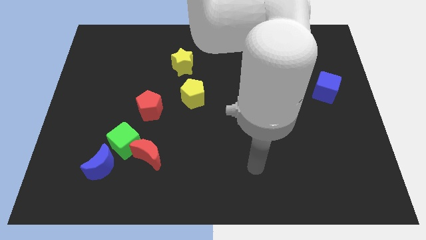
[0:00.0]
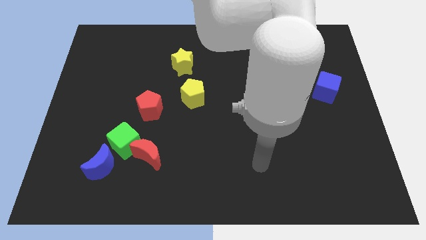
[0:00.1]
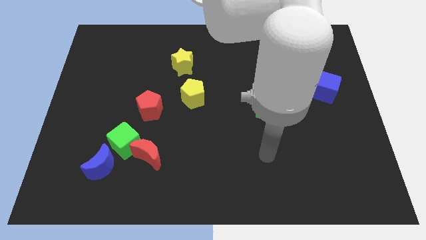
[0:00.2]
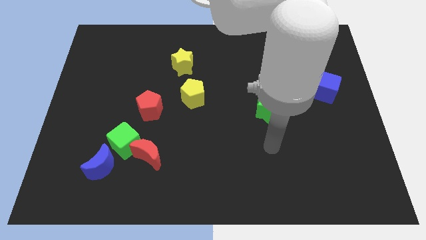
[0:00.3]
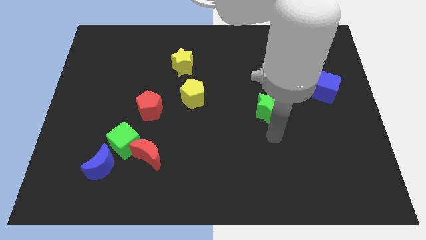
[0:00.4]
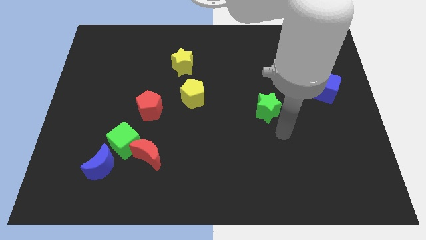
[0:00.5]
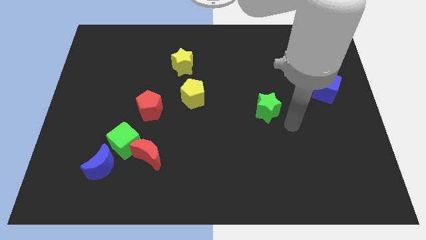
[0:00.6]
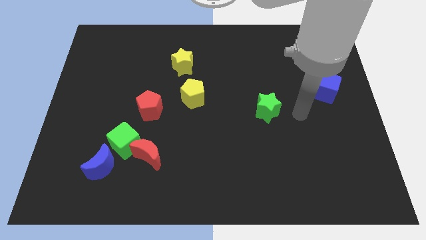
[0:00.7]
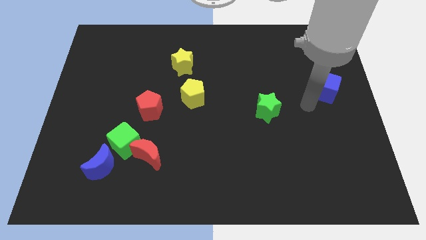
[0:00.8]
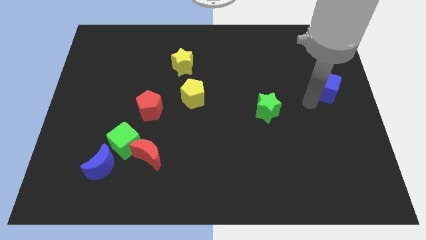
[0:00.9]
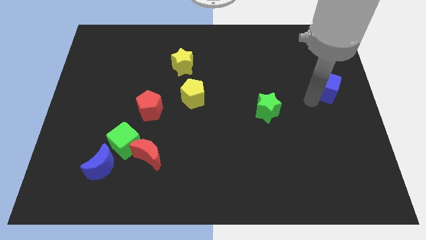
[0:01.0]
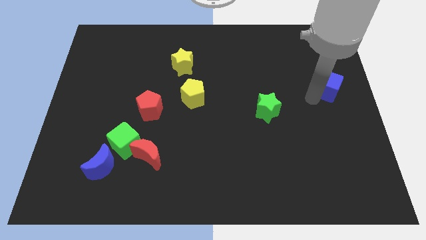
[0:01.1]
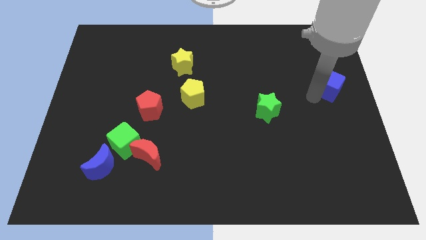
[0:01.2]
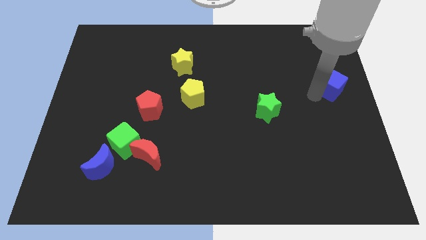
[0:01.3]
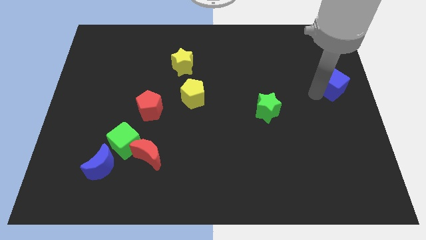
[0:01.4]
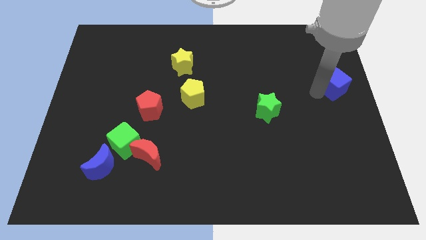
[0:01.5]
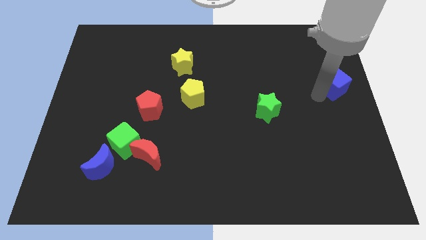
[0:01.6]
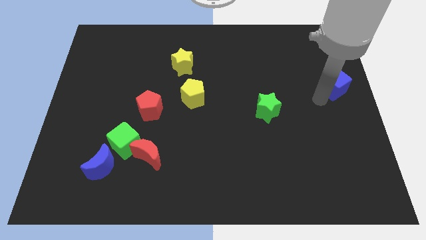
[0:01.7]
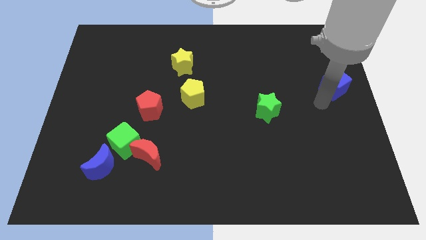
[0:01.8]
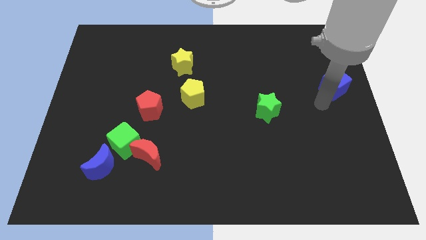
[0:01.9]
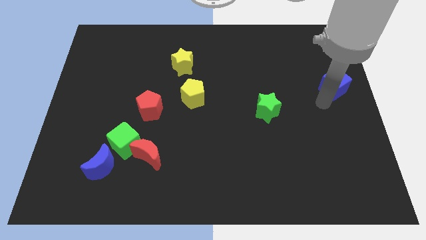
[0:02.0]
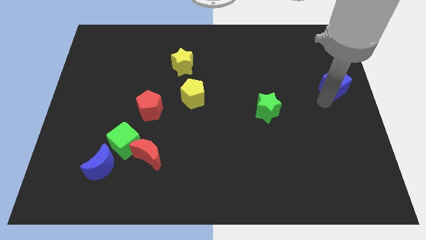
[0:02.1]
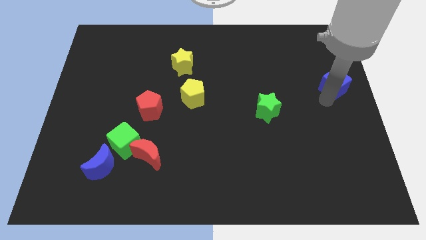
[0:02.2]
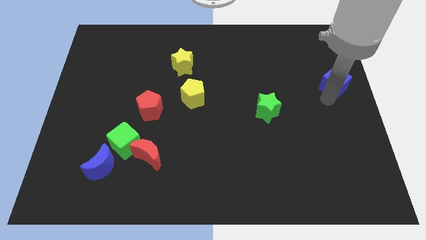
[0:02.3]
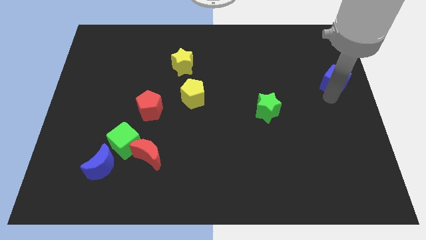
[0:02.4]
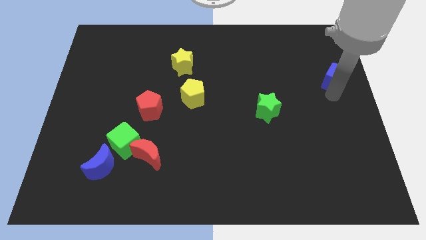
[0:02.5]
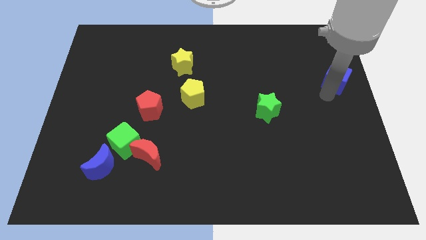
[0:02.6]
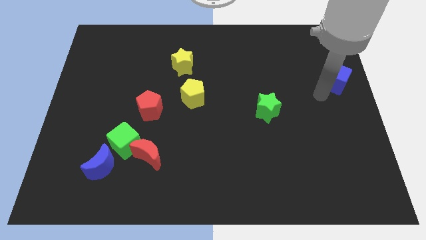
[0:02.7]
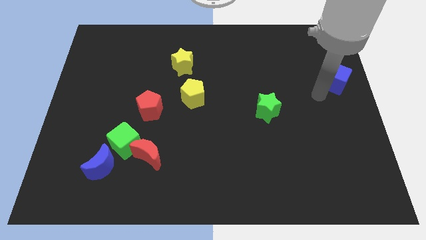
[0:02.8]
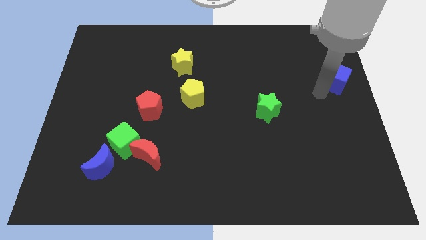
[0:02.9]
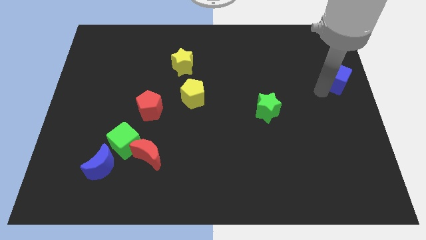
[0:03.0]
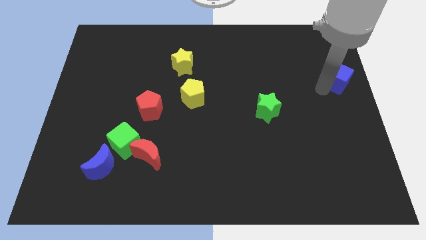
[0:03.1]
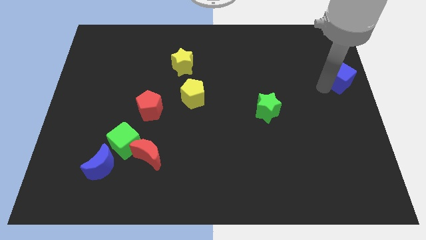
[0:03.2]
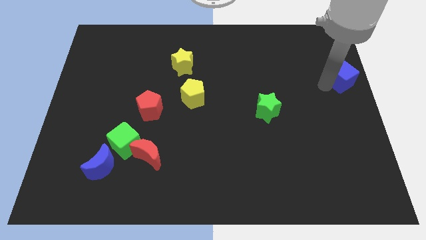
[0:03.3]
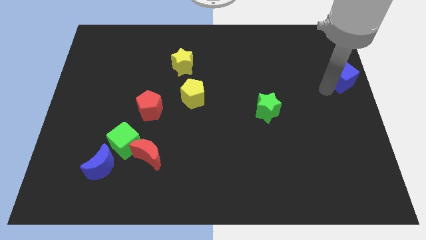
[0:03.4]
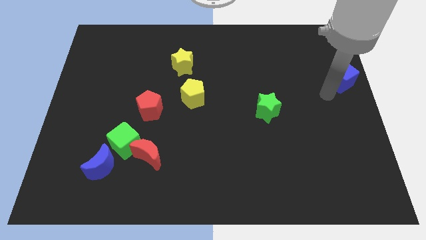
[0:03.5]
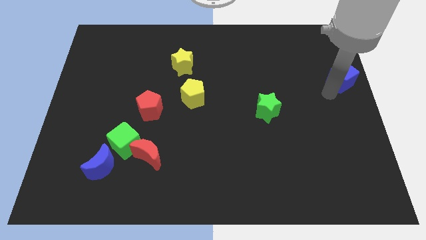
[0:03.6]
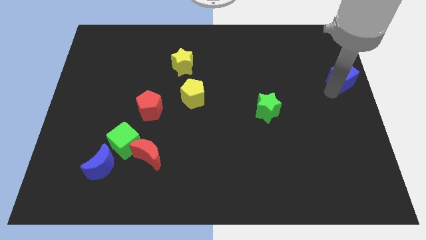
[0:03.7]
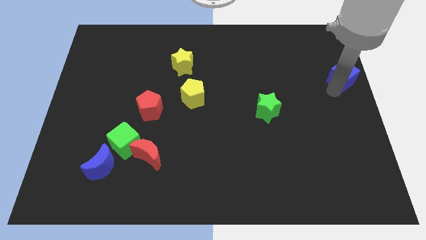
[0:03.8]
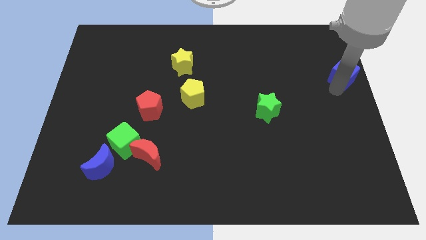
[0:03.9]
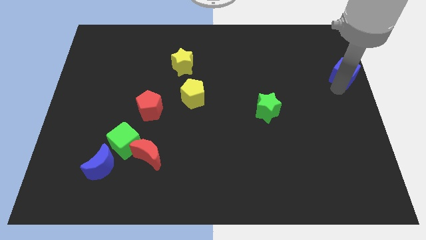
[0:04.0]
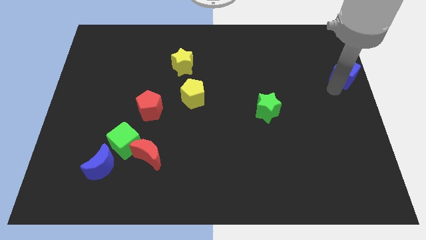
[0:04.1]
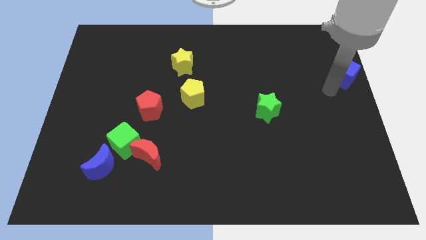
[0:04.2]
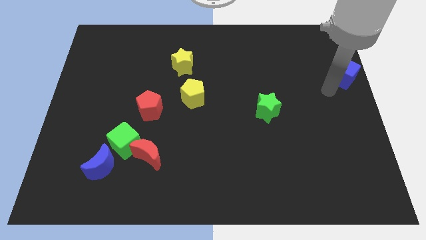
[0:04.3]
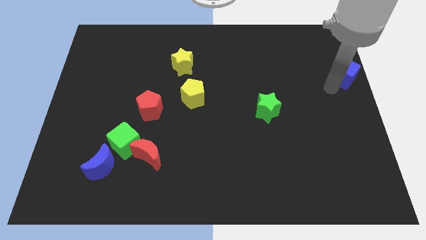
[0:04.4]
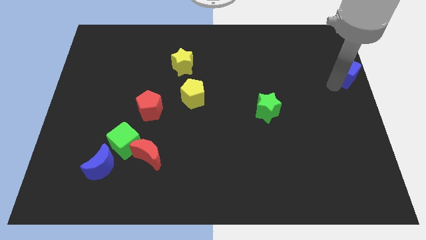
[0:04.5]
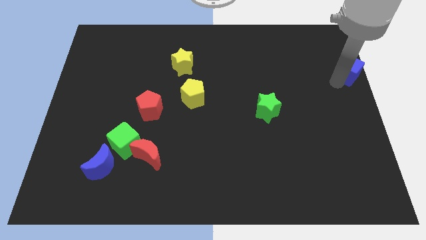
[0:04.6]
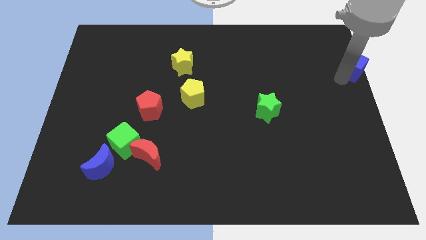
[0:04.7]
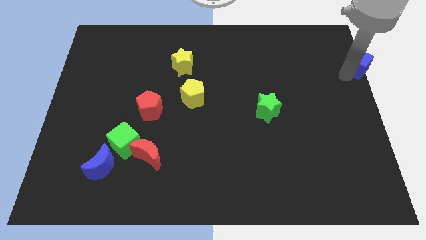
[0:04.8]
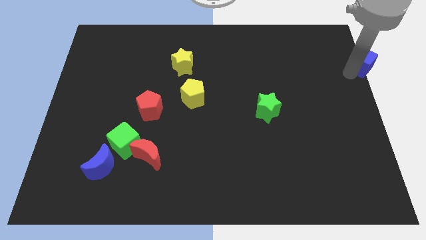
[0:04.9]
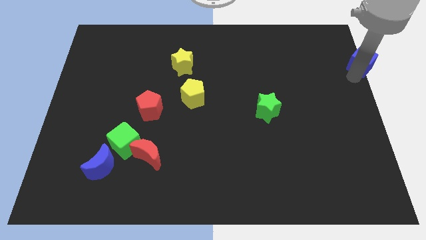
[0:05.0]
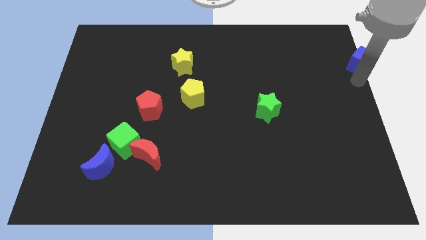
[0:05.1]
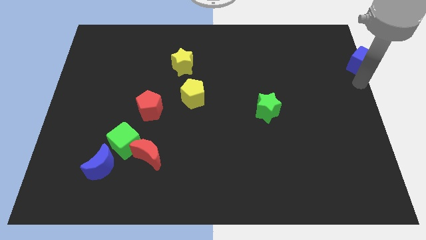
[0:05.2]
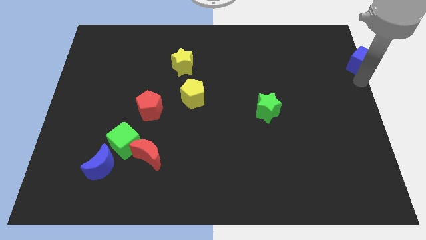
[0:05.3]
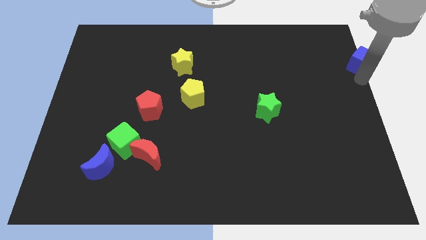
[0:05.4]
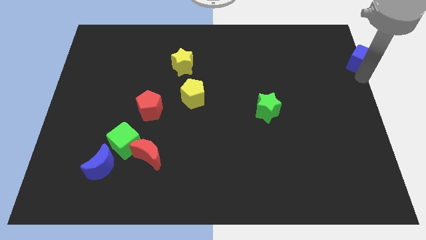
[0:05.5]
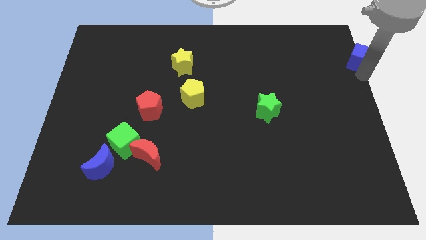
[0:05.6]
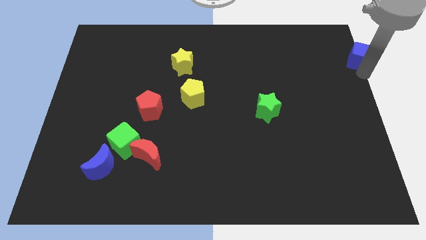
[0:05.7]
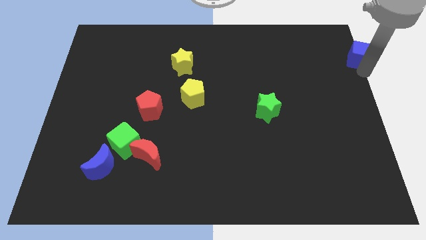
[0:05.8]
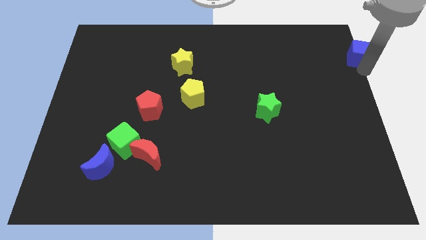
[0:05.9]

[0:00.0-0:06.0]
slide the blue cube to the top right of the board

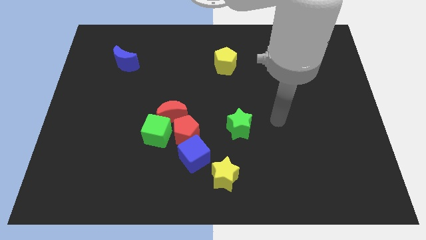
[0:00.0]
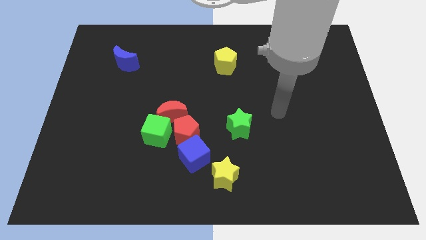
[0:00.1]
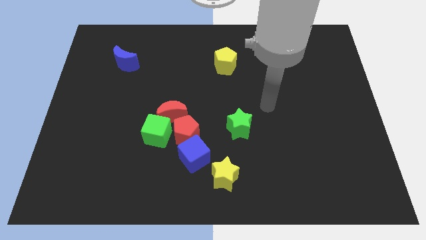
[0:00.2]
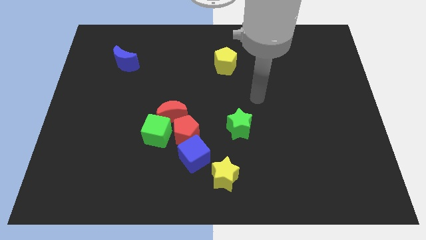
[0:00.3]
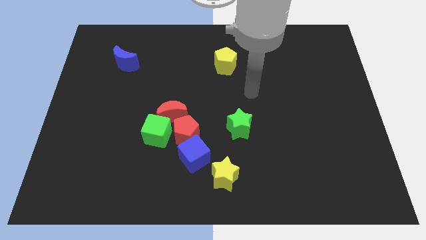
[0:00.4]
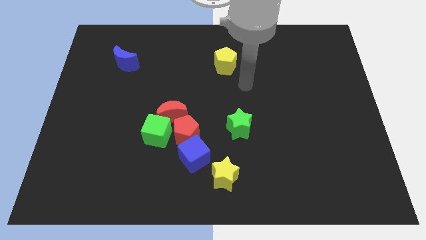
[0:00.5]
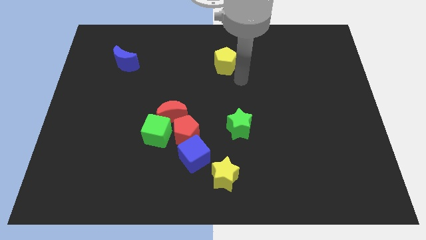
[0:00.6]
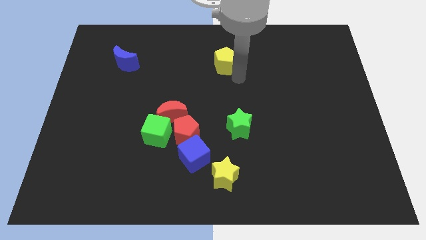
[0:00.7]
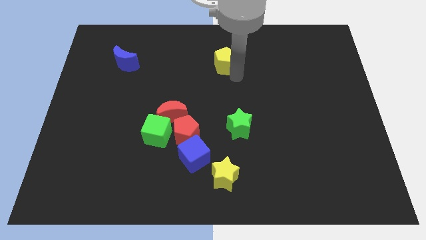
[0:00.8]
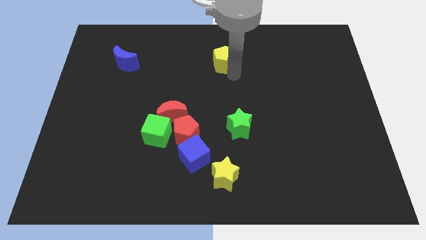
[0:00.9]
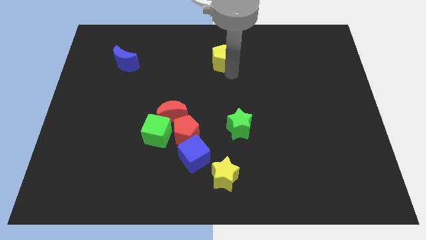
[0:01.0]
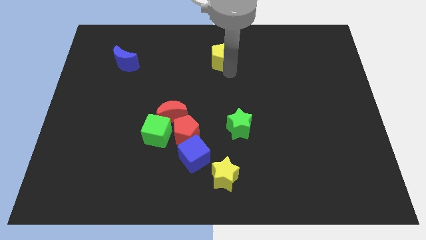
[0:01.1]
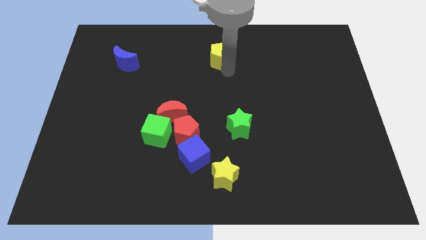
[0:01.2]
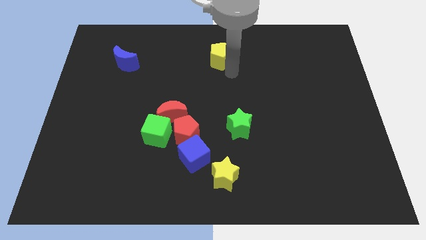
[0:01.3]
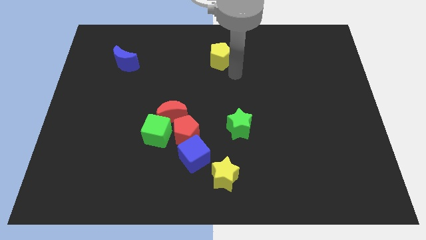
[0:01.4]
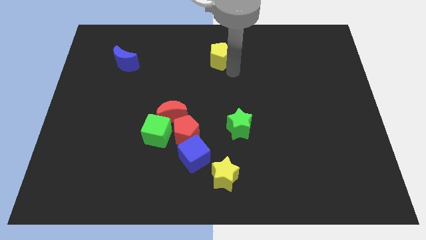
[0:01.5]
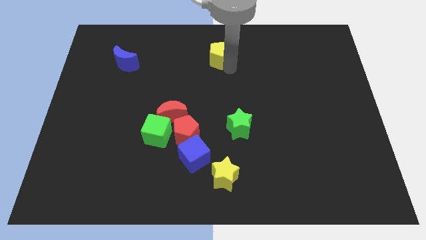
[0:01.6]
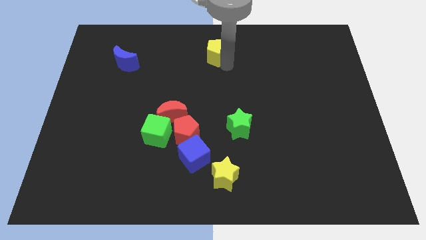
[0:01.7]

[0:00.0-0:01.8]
slide the yellow pentagon to the top side
